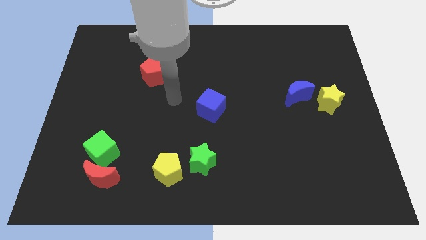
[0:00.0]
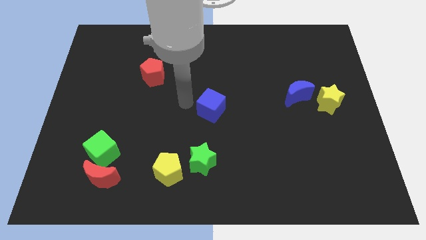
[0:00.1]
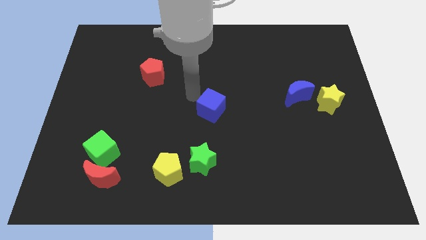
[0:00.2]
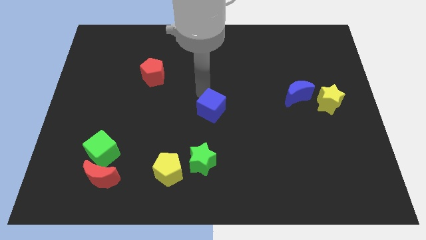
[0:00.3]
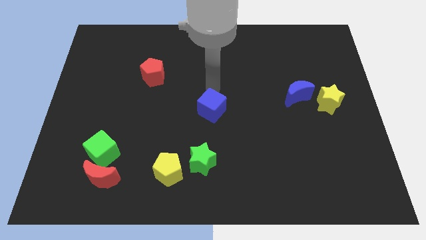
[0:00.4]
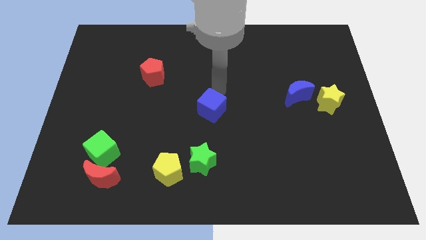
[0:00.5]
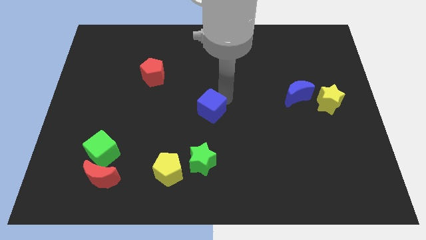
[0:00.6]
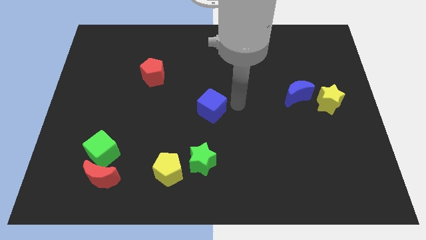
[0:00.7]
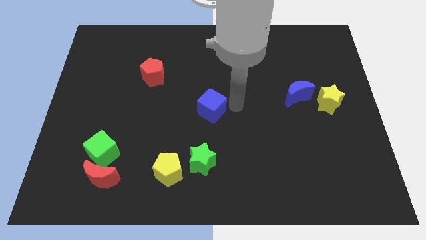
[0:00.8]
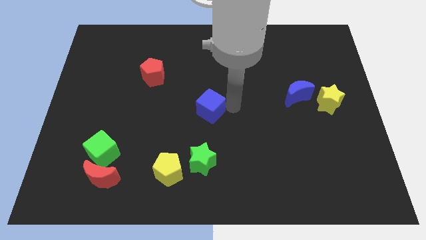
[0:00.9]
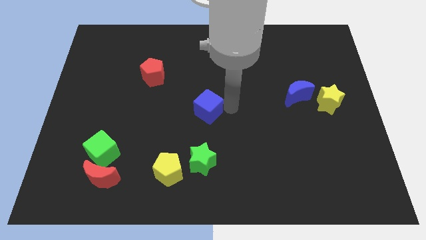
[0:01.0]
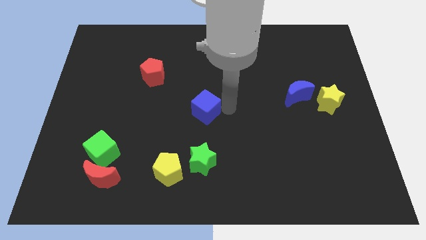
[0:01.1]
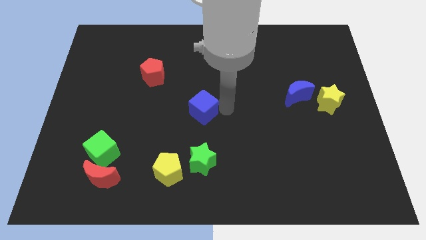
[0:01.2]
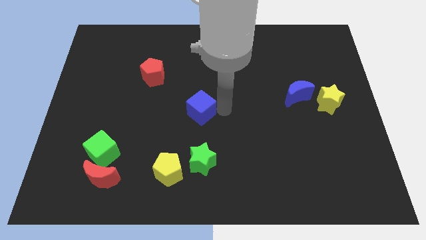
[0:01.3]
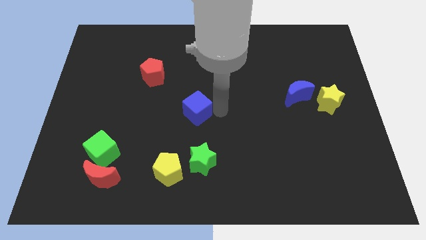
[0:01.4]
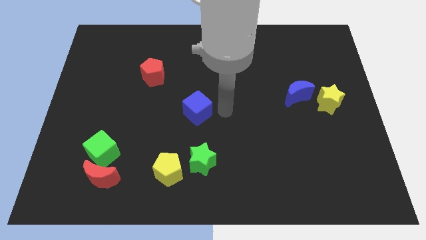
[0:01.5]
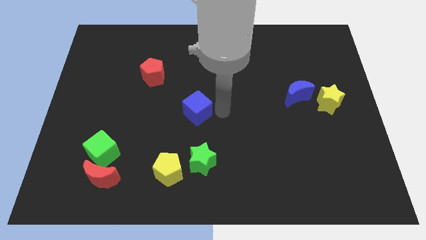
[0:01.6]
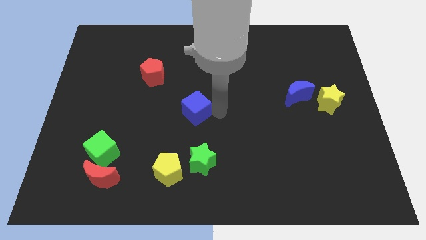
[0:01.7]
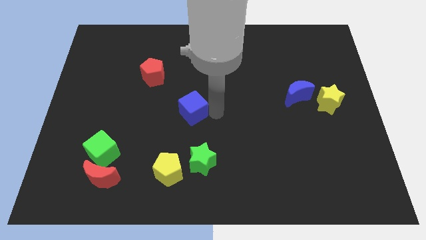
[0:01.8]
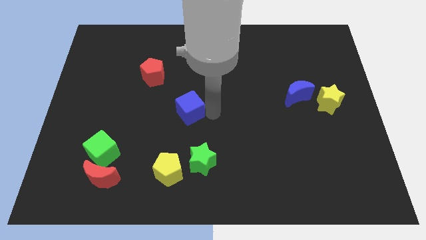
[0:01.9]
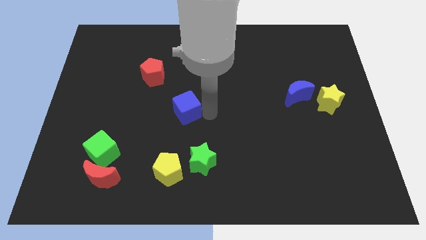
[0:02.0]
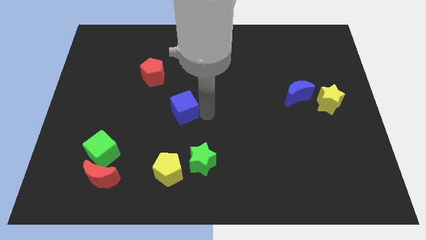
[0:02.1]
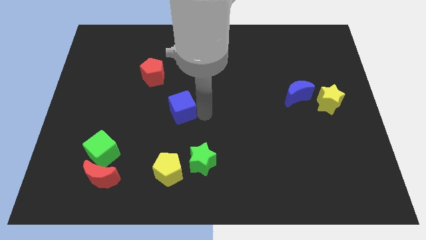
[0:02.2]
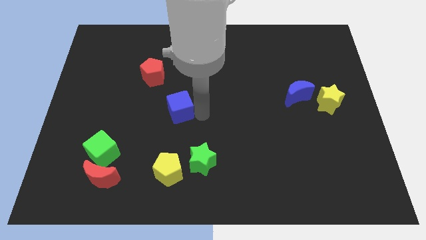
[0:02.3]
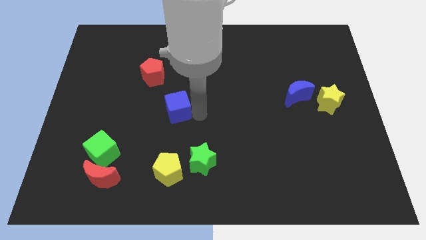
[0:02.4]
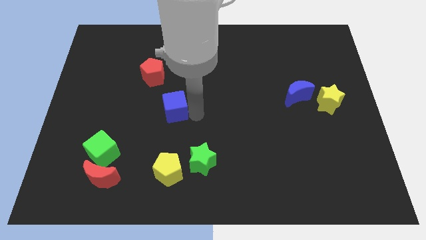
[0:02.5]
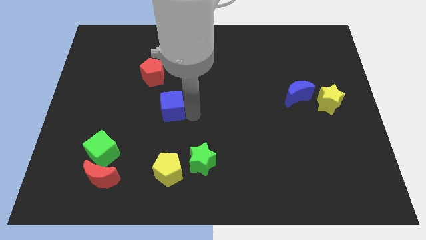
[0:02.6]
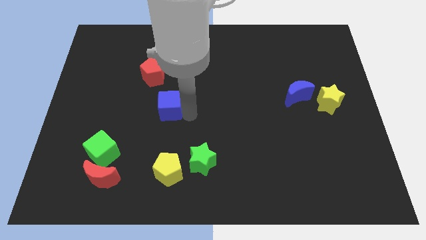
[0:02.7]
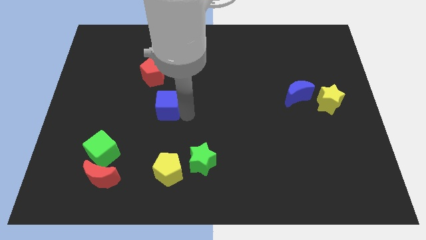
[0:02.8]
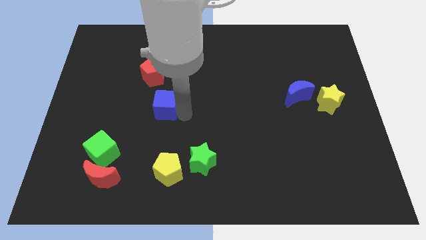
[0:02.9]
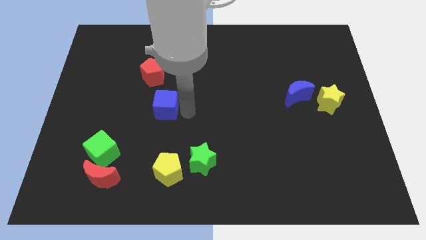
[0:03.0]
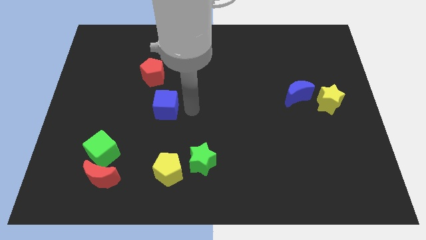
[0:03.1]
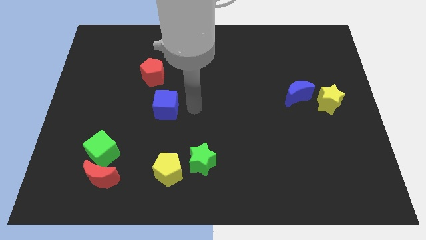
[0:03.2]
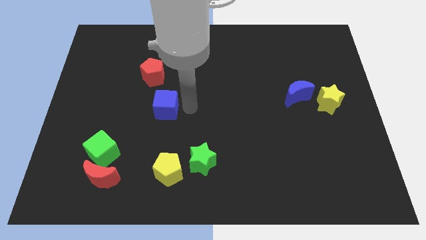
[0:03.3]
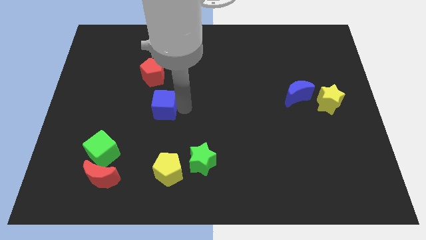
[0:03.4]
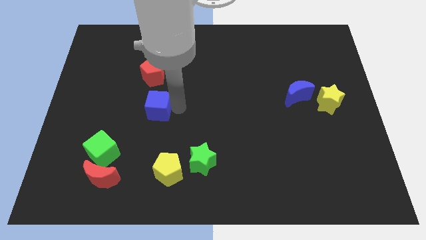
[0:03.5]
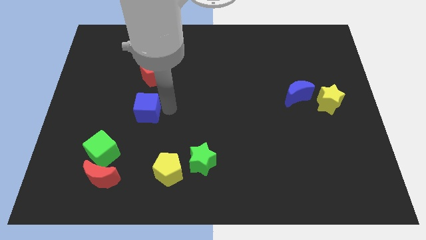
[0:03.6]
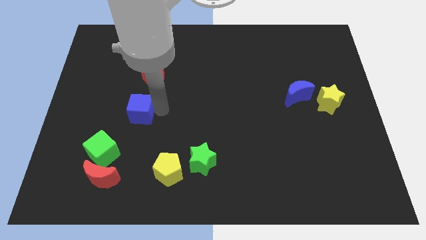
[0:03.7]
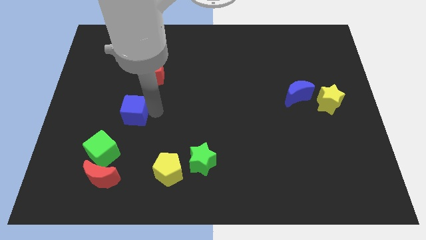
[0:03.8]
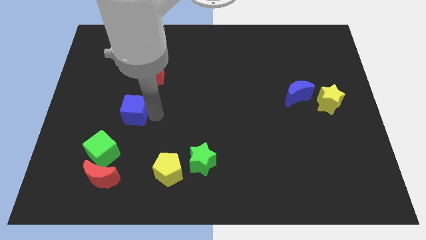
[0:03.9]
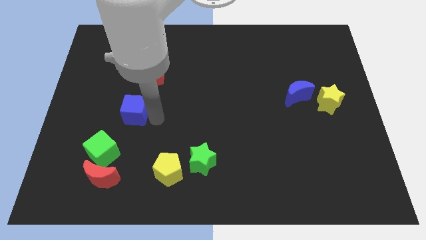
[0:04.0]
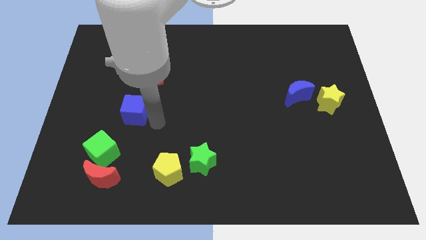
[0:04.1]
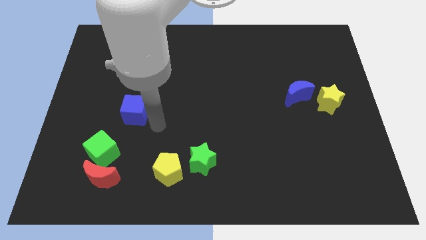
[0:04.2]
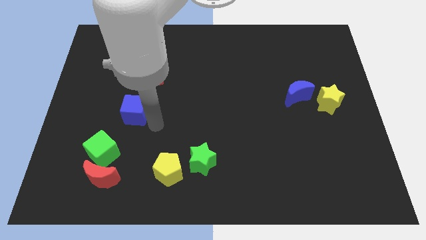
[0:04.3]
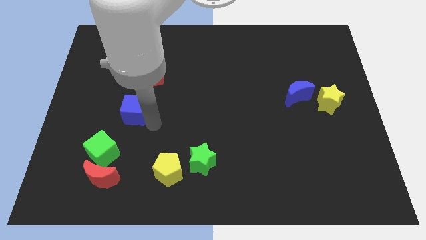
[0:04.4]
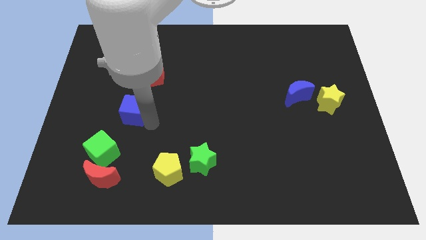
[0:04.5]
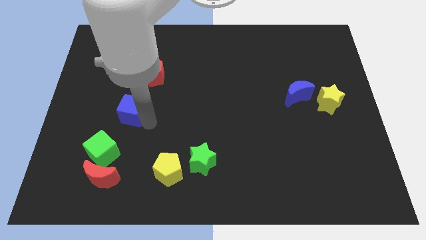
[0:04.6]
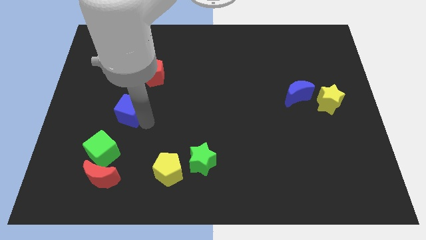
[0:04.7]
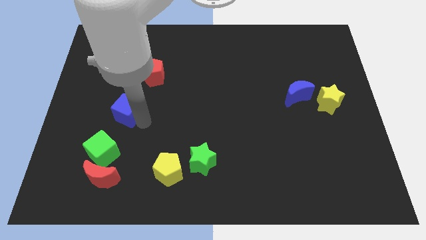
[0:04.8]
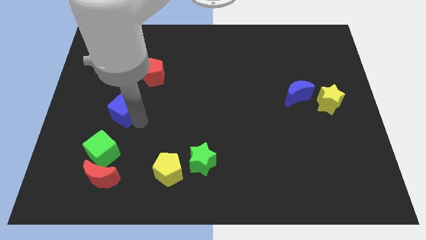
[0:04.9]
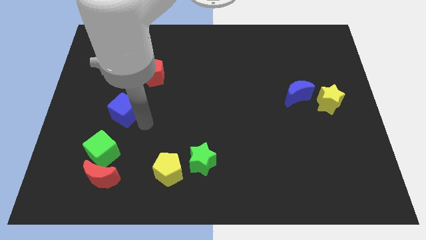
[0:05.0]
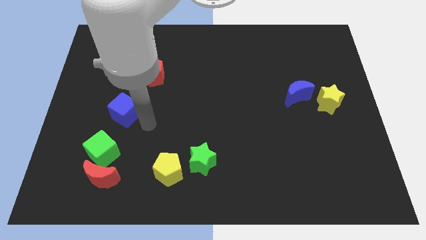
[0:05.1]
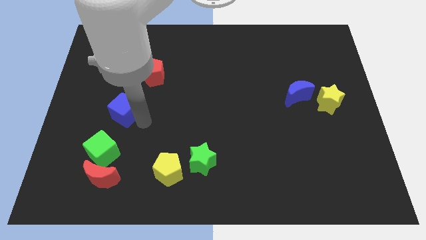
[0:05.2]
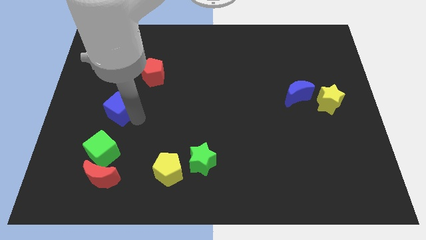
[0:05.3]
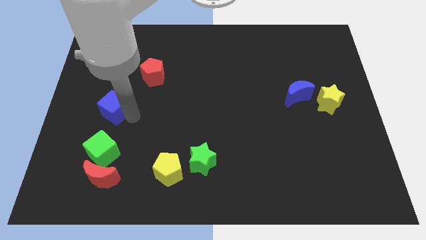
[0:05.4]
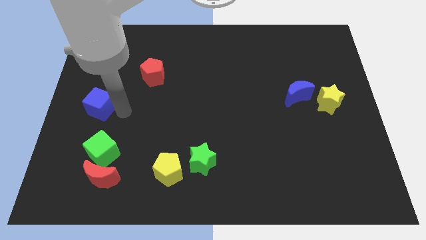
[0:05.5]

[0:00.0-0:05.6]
put the blue cube to the left side of the board

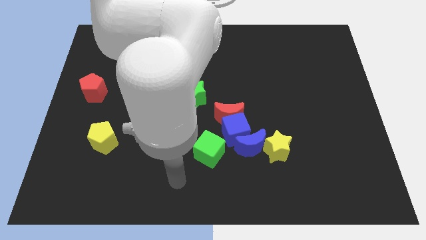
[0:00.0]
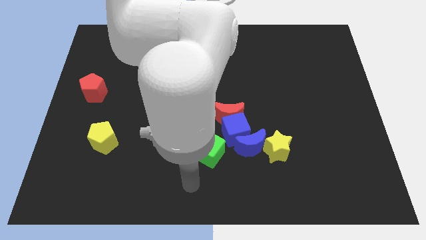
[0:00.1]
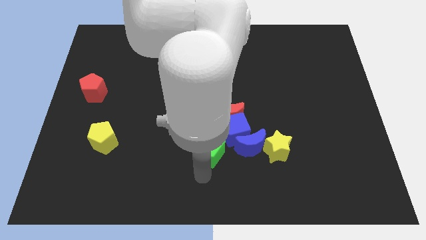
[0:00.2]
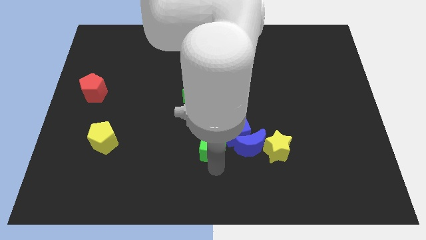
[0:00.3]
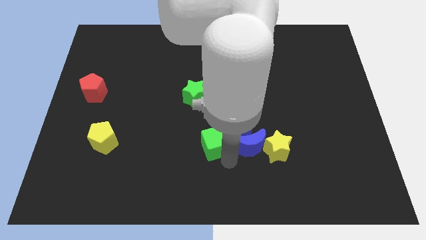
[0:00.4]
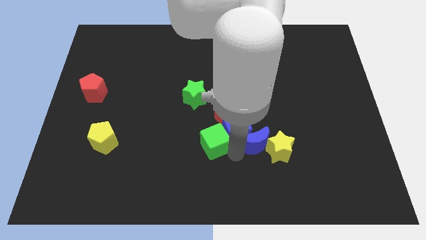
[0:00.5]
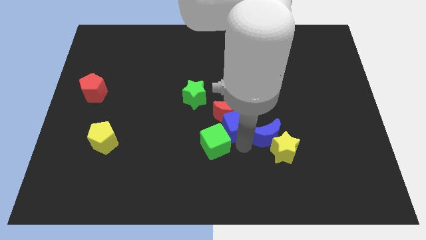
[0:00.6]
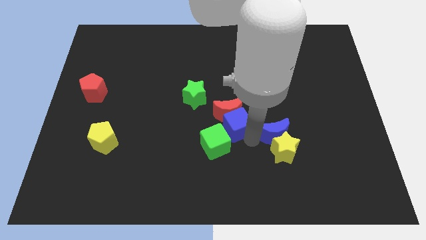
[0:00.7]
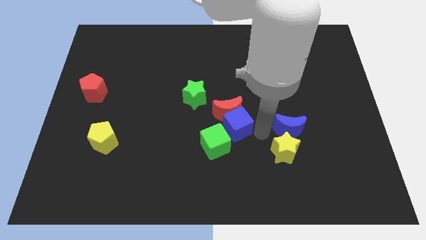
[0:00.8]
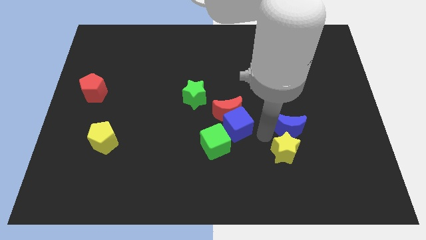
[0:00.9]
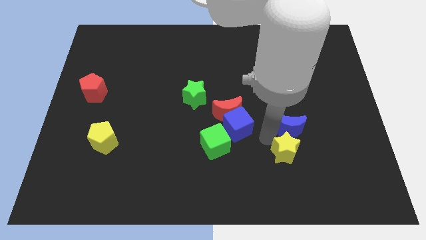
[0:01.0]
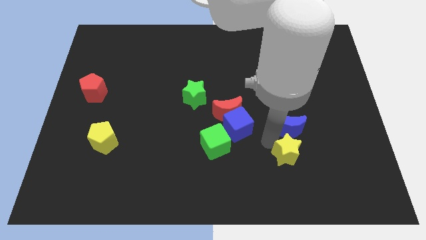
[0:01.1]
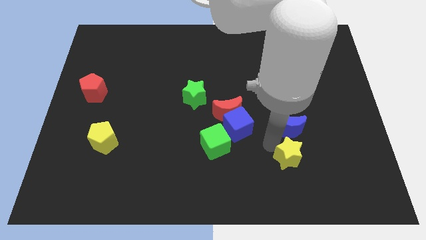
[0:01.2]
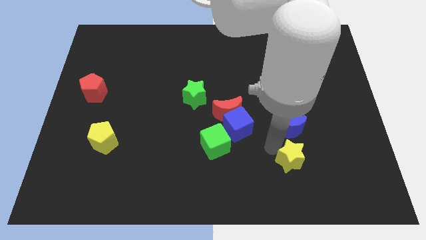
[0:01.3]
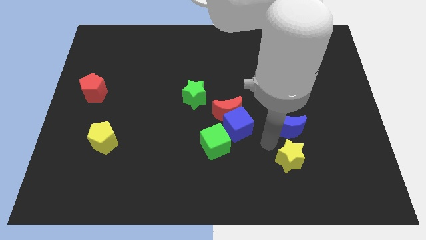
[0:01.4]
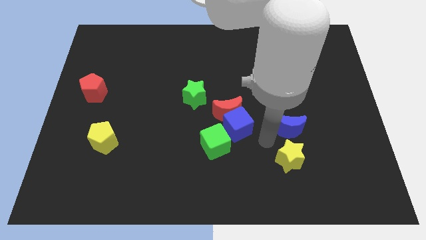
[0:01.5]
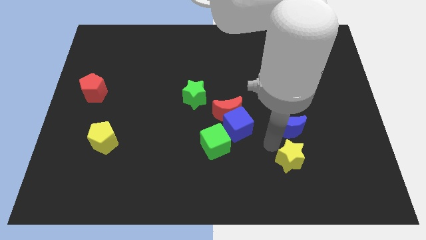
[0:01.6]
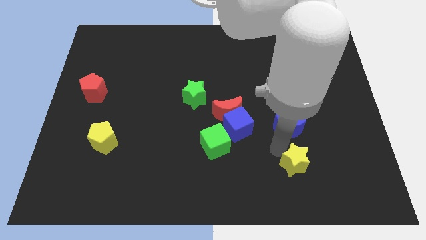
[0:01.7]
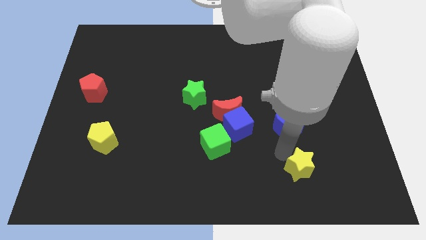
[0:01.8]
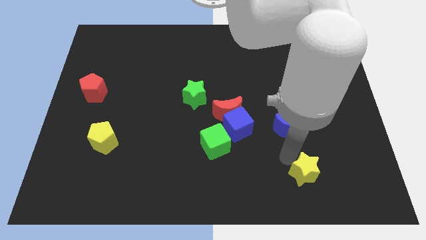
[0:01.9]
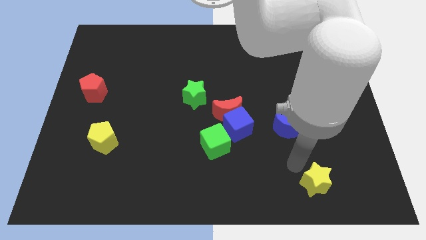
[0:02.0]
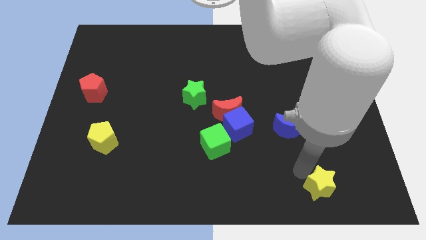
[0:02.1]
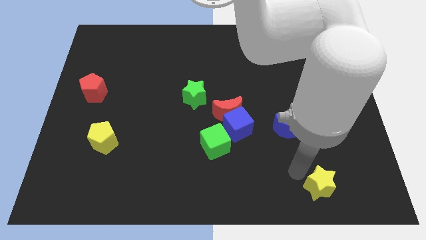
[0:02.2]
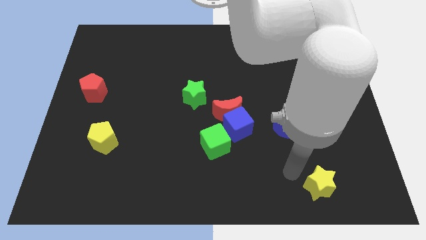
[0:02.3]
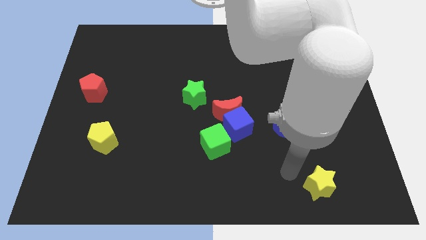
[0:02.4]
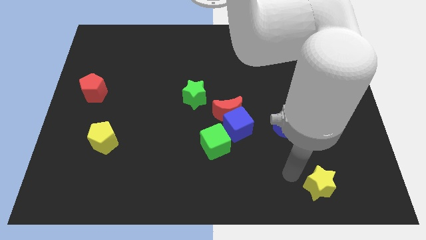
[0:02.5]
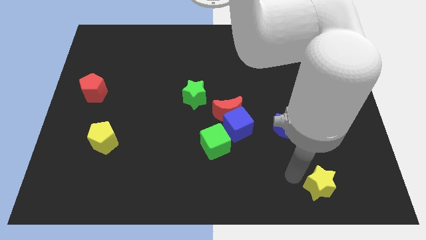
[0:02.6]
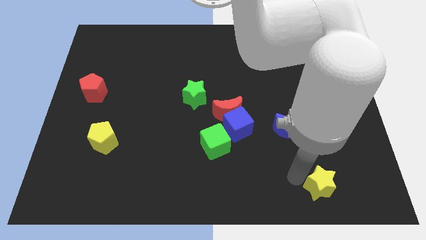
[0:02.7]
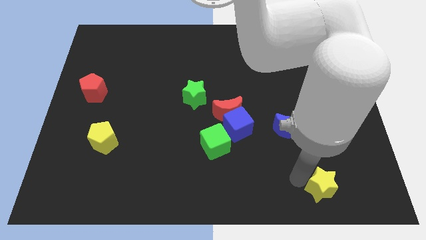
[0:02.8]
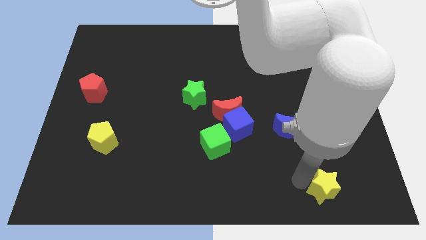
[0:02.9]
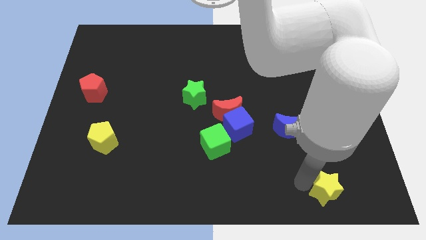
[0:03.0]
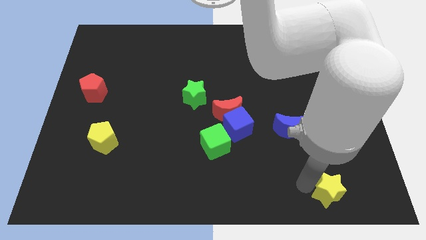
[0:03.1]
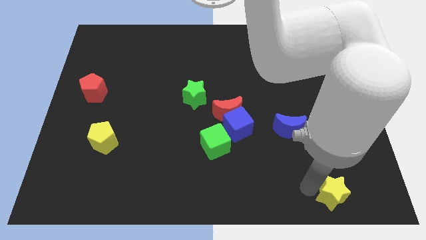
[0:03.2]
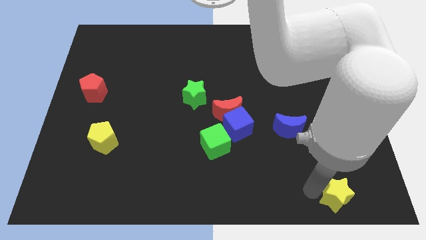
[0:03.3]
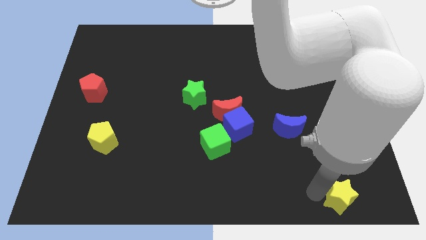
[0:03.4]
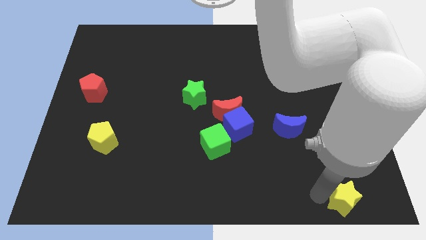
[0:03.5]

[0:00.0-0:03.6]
push the yellow star to the bottom right of the board
